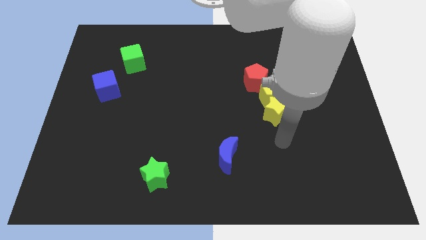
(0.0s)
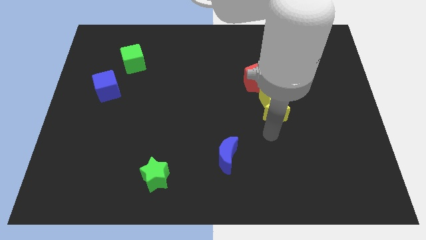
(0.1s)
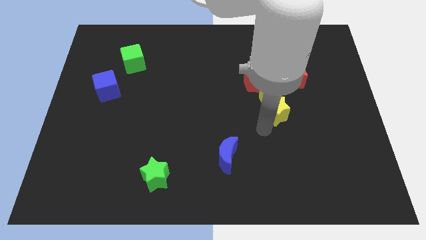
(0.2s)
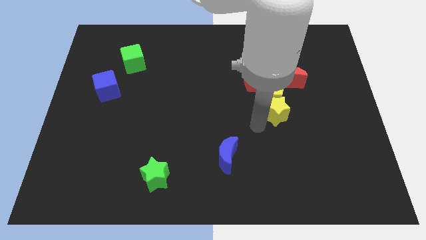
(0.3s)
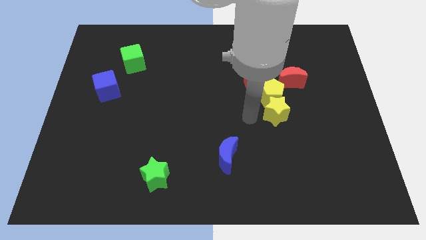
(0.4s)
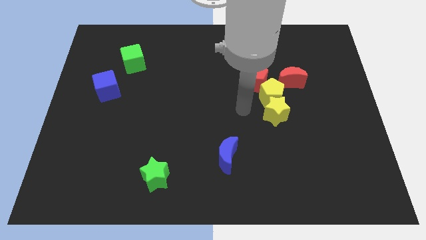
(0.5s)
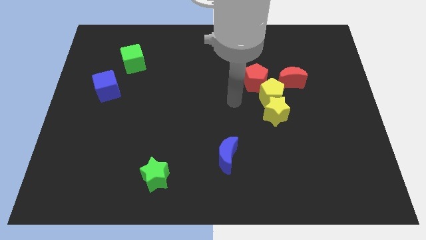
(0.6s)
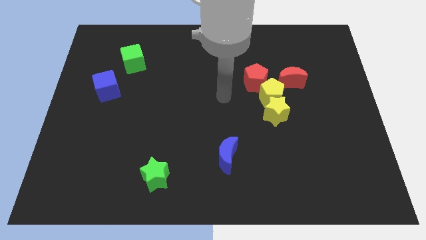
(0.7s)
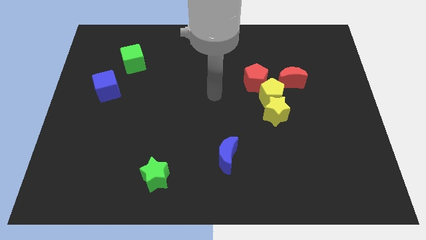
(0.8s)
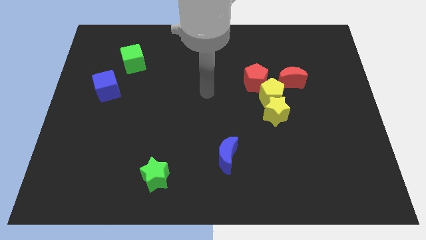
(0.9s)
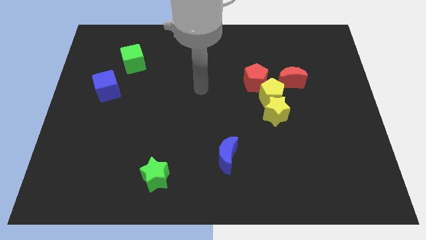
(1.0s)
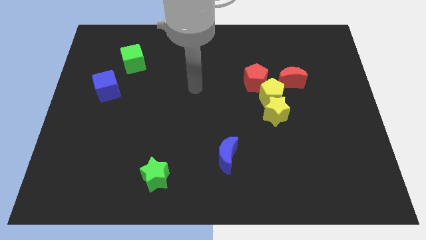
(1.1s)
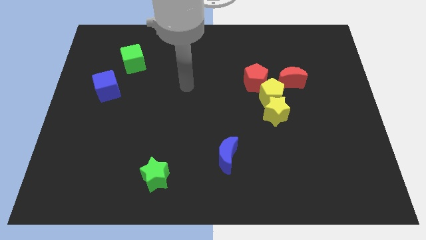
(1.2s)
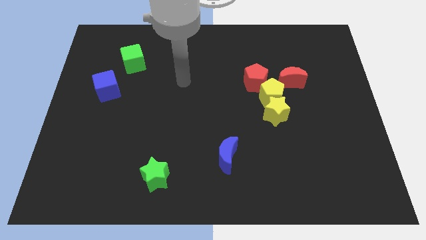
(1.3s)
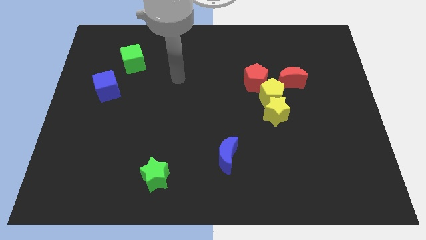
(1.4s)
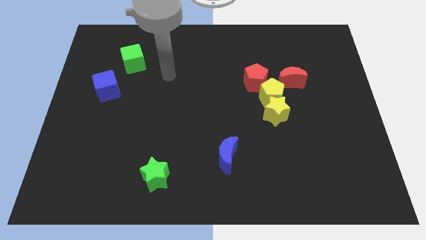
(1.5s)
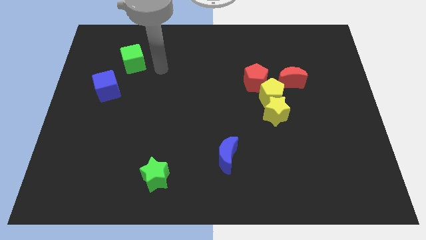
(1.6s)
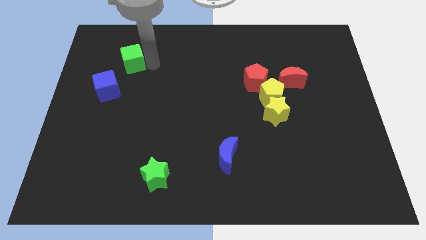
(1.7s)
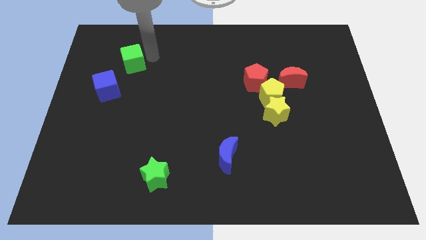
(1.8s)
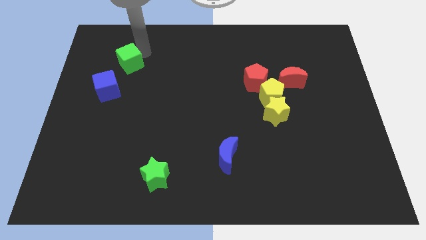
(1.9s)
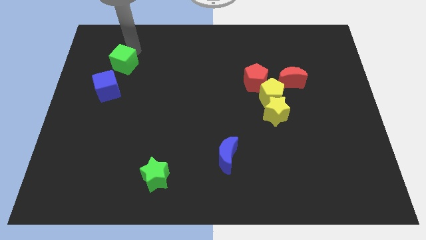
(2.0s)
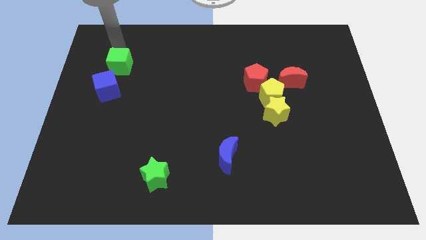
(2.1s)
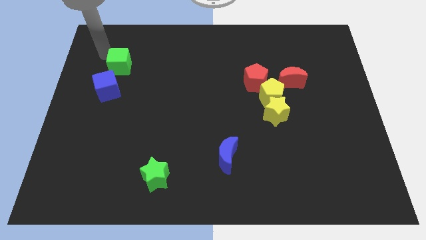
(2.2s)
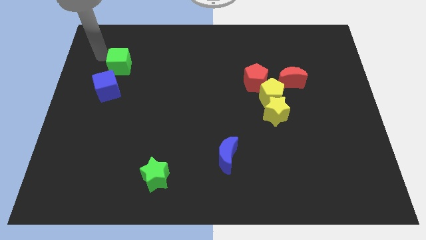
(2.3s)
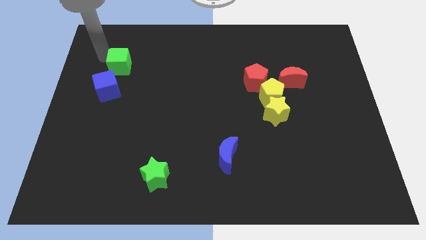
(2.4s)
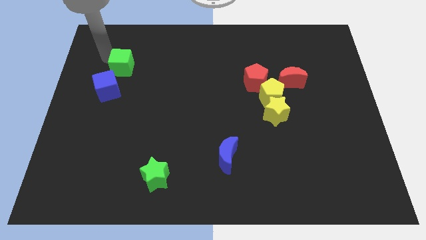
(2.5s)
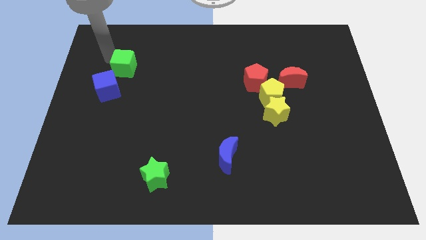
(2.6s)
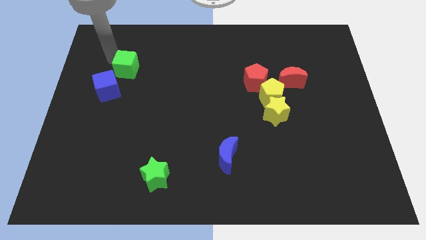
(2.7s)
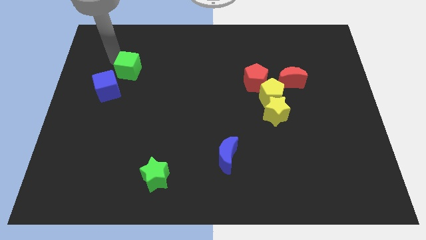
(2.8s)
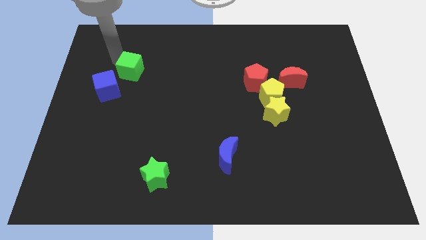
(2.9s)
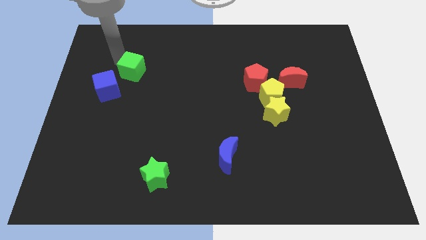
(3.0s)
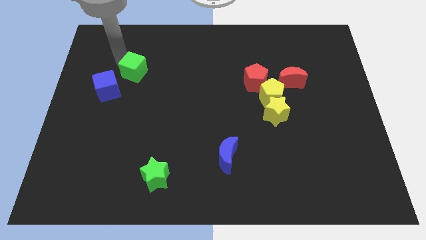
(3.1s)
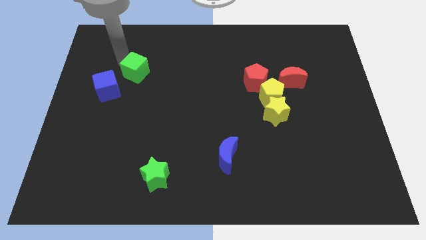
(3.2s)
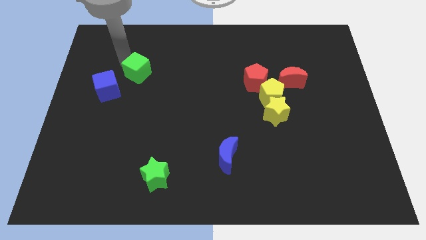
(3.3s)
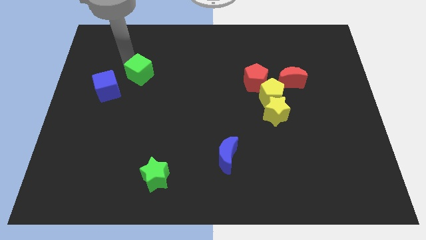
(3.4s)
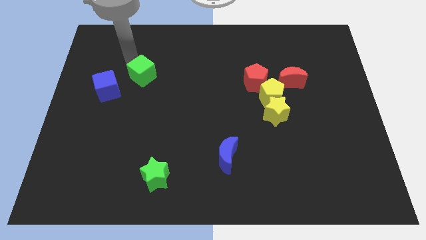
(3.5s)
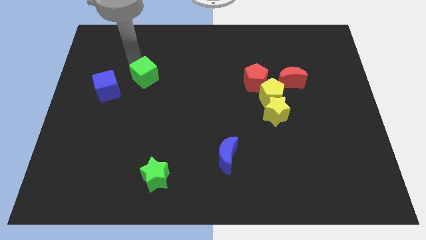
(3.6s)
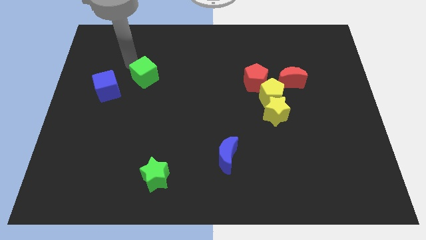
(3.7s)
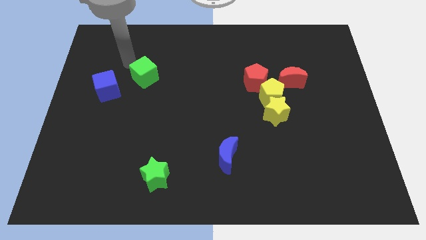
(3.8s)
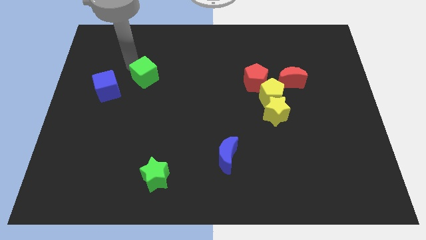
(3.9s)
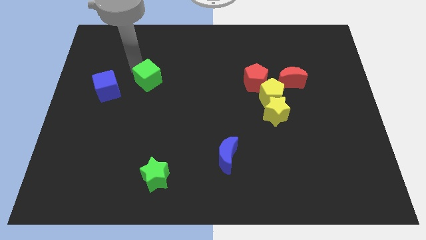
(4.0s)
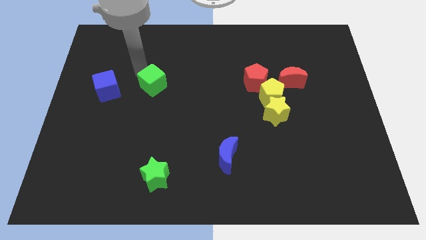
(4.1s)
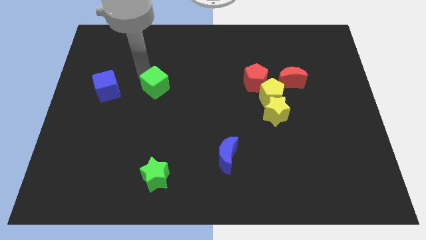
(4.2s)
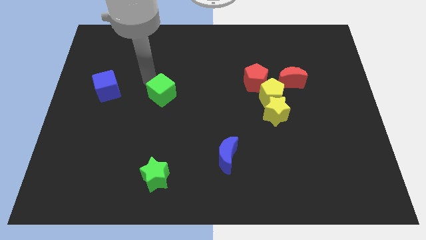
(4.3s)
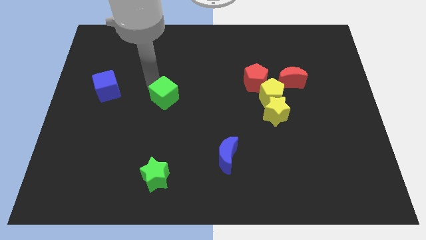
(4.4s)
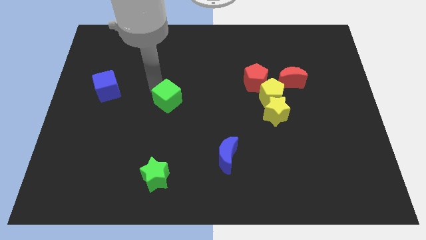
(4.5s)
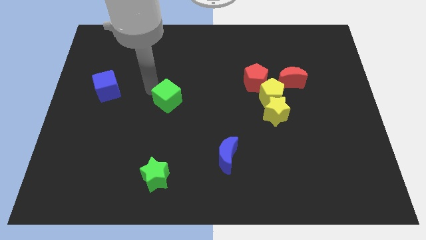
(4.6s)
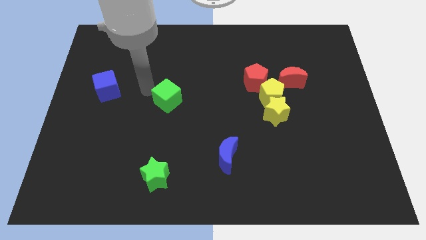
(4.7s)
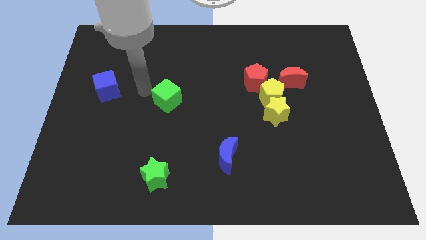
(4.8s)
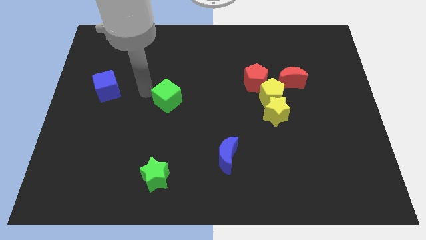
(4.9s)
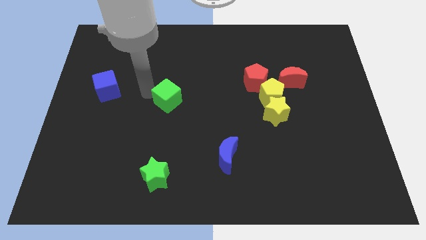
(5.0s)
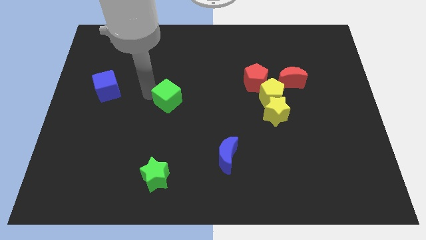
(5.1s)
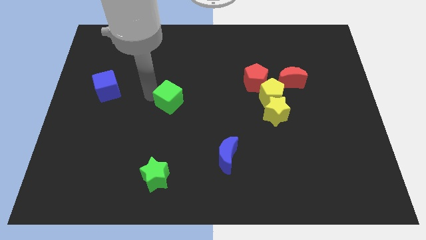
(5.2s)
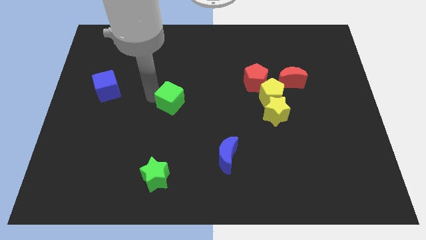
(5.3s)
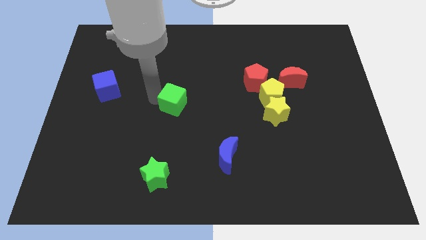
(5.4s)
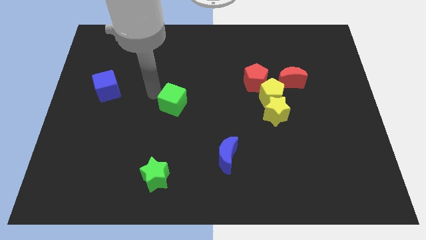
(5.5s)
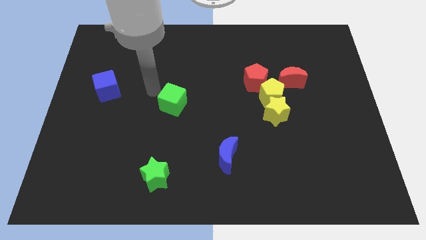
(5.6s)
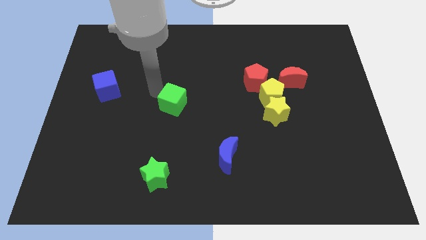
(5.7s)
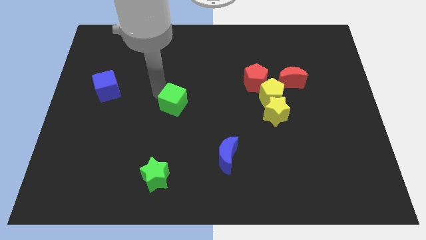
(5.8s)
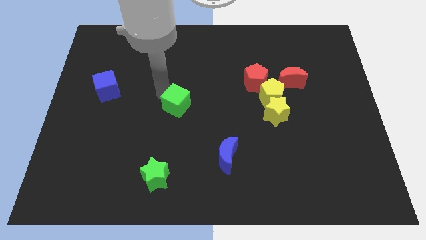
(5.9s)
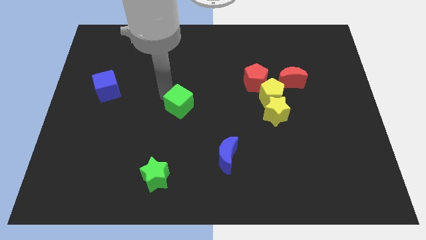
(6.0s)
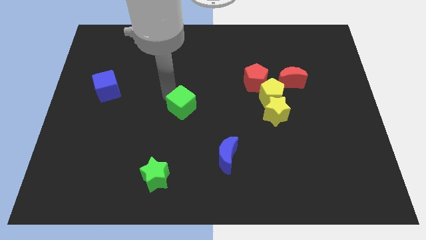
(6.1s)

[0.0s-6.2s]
slide the green cube downwards and then to the right

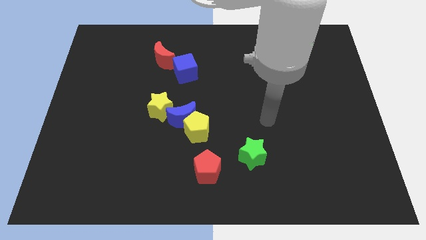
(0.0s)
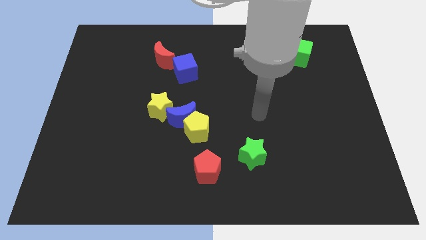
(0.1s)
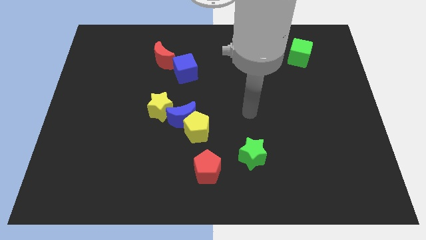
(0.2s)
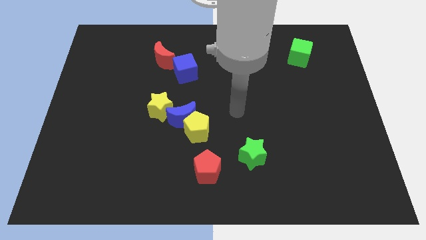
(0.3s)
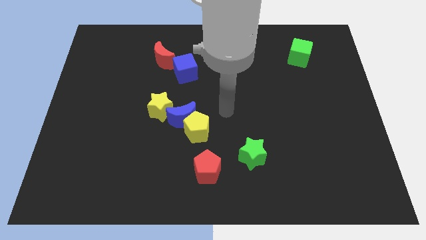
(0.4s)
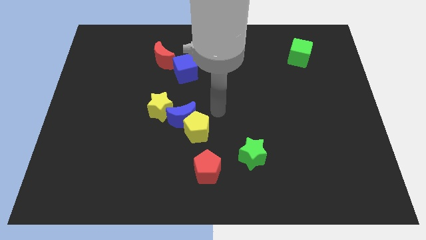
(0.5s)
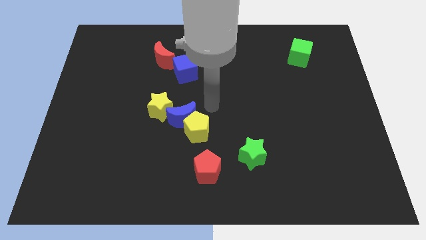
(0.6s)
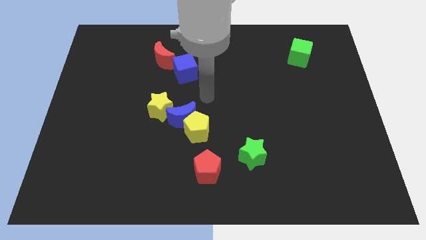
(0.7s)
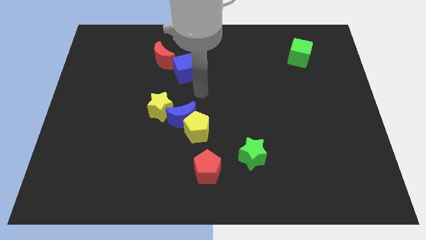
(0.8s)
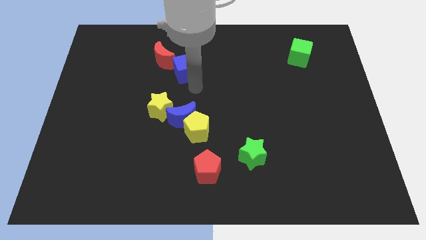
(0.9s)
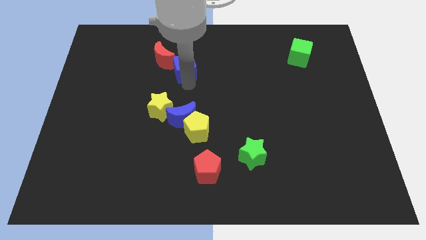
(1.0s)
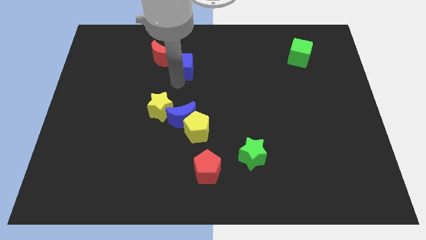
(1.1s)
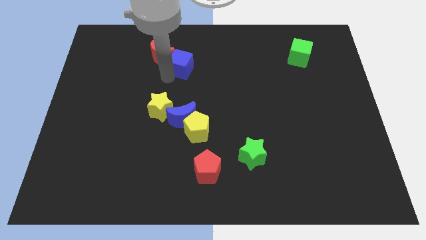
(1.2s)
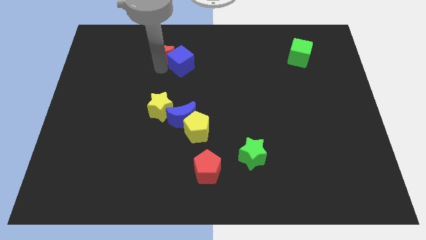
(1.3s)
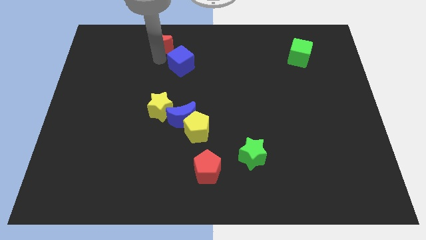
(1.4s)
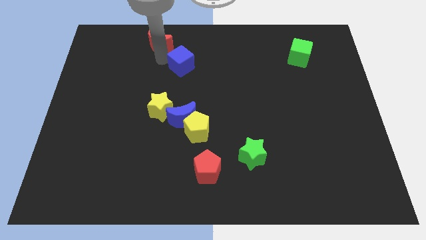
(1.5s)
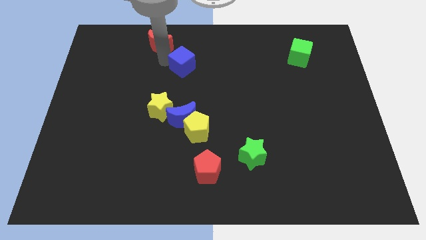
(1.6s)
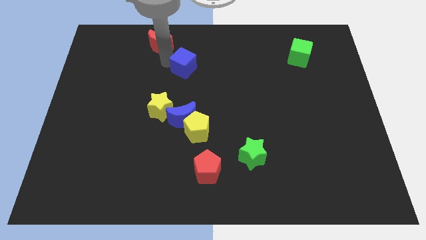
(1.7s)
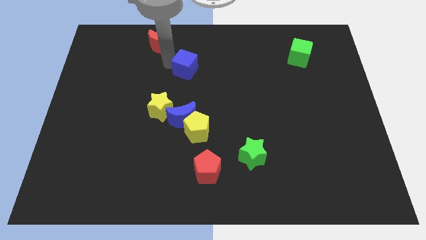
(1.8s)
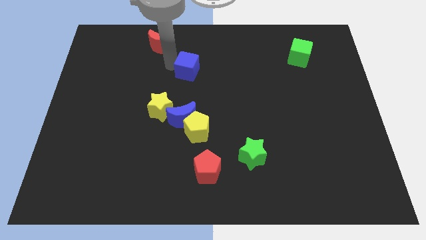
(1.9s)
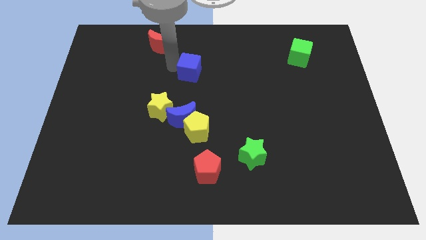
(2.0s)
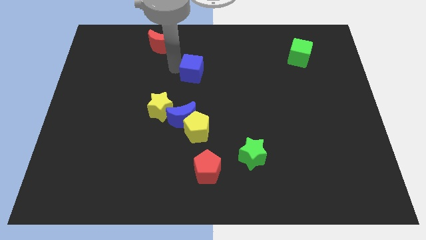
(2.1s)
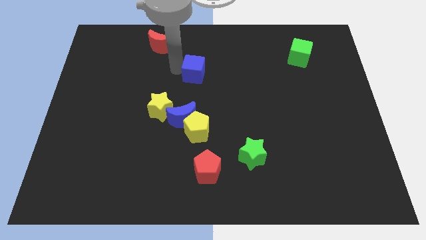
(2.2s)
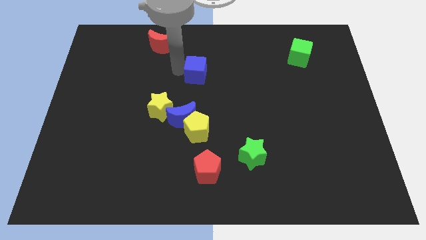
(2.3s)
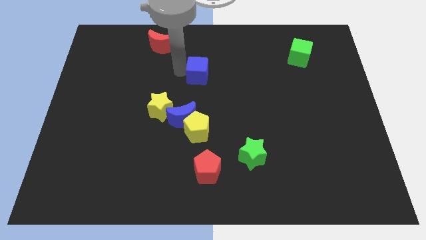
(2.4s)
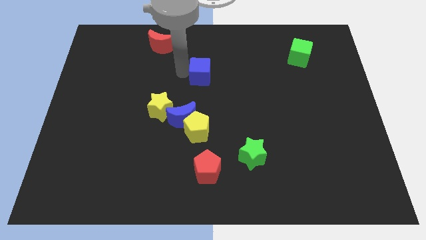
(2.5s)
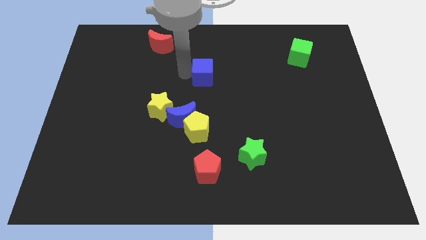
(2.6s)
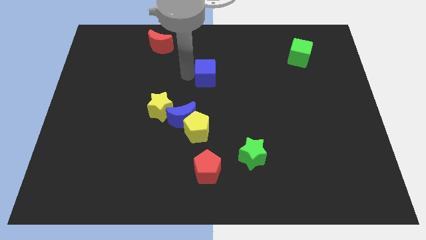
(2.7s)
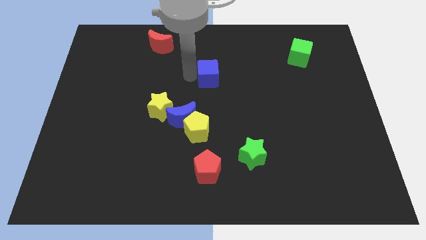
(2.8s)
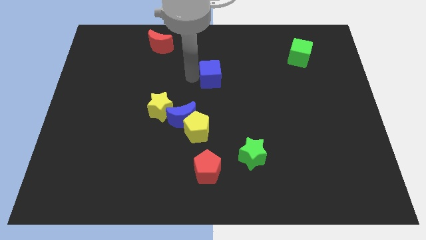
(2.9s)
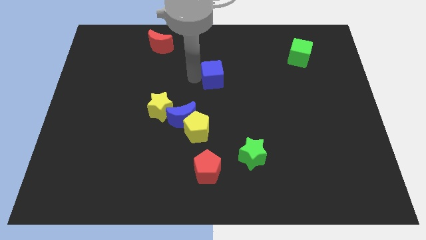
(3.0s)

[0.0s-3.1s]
slide the blue cube to the right a little bit
